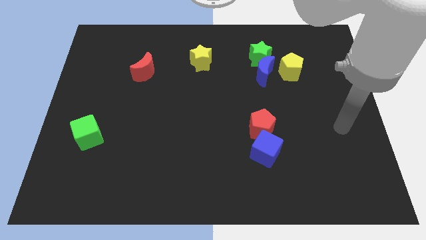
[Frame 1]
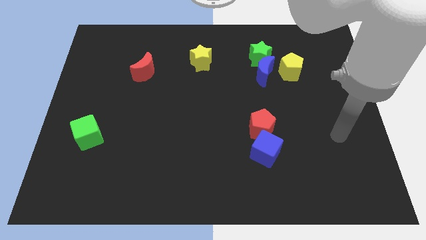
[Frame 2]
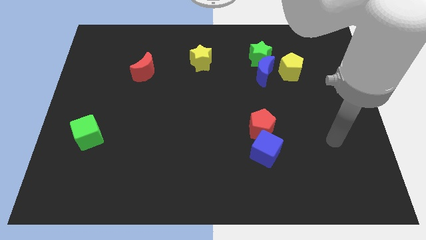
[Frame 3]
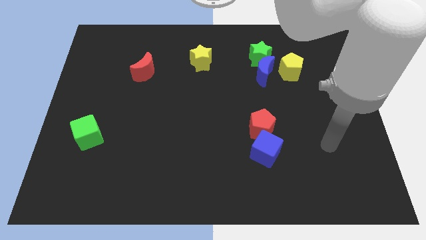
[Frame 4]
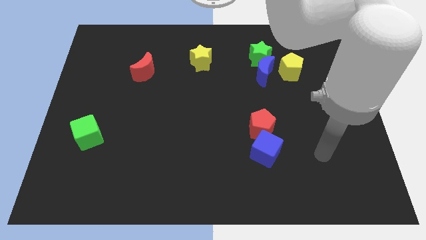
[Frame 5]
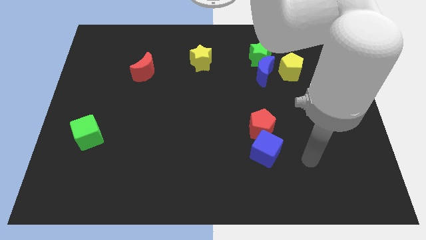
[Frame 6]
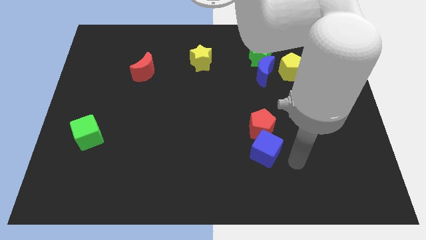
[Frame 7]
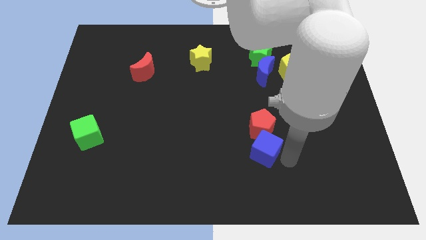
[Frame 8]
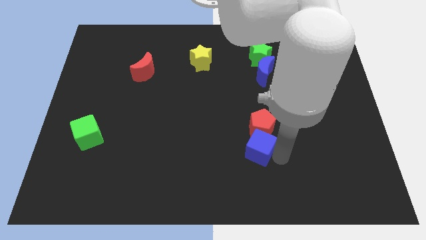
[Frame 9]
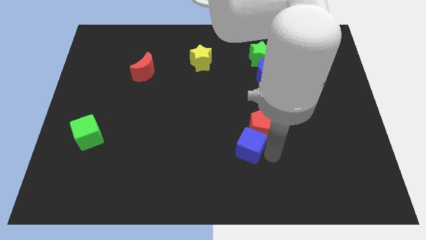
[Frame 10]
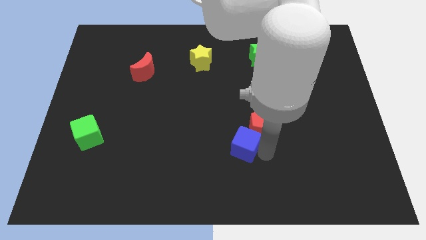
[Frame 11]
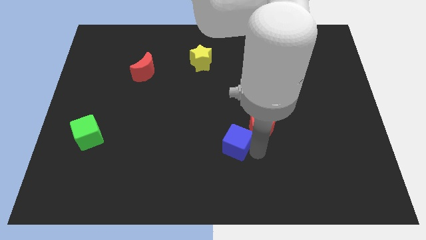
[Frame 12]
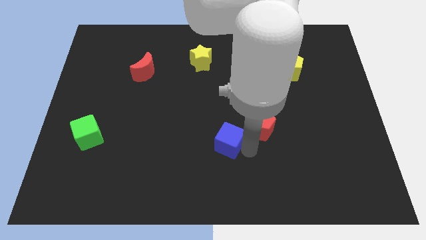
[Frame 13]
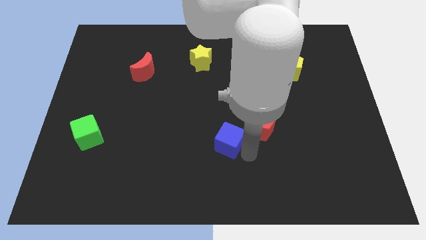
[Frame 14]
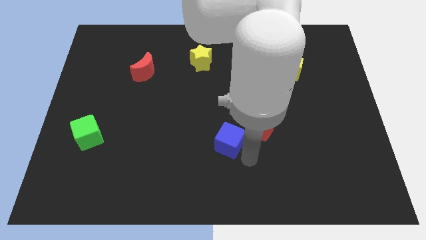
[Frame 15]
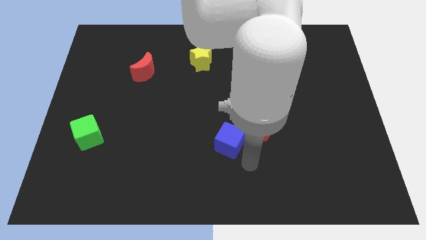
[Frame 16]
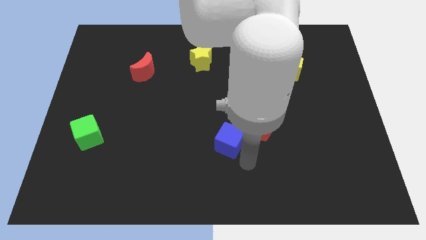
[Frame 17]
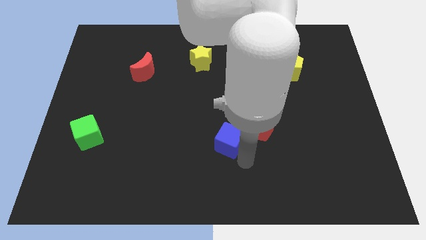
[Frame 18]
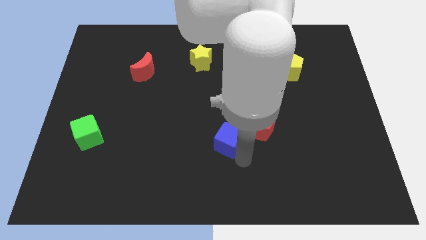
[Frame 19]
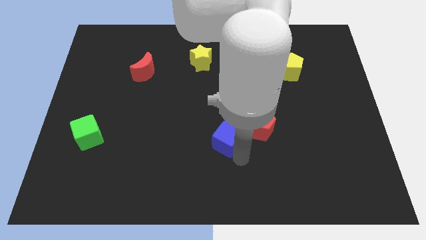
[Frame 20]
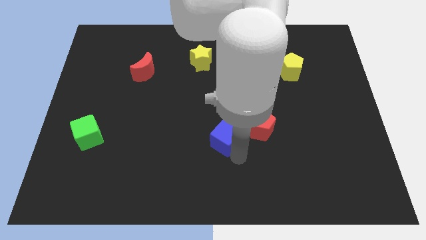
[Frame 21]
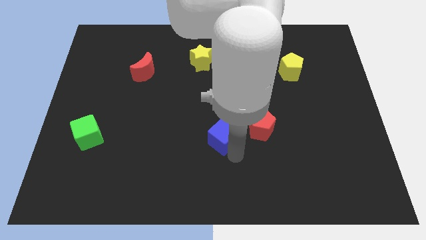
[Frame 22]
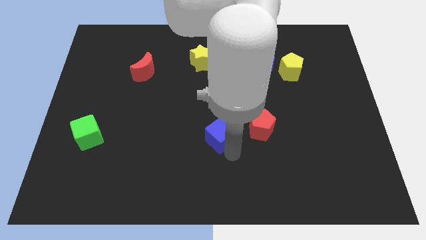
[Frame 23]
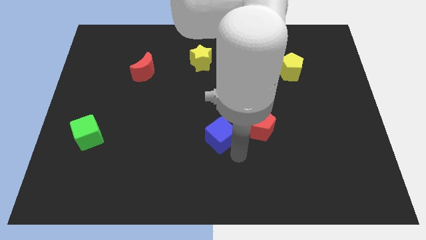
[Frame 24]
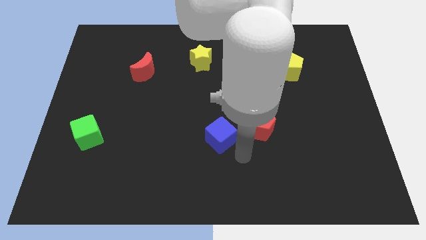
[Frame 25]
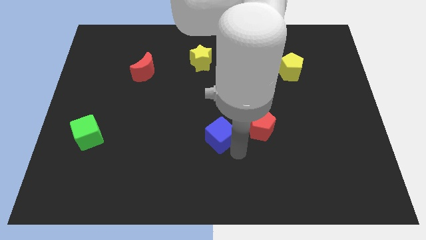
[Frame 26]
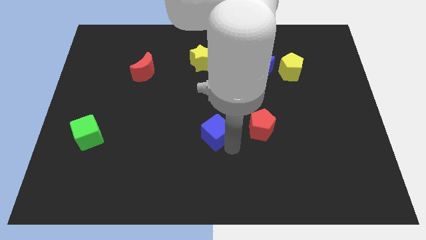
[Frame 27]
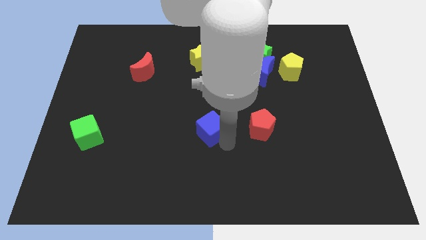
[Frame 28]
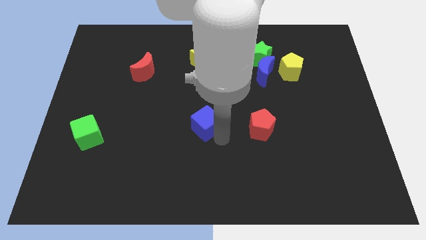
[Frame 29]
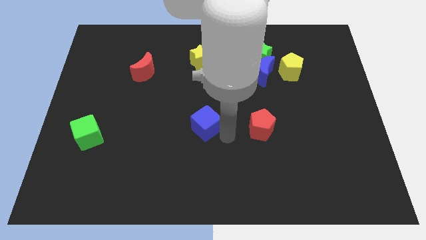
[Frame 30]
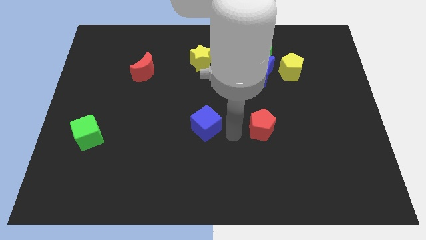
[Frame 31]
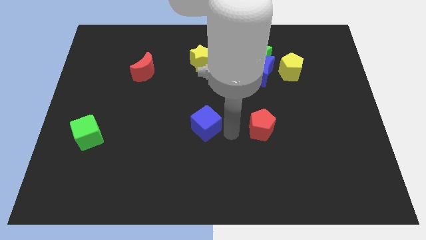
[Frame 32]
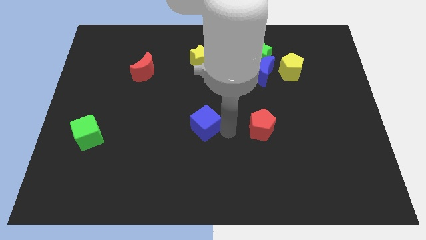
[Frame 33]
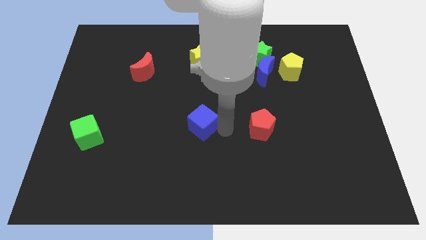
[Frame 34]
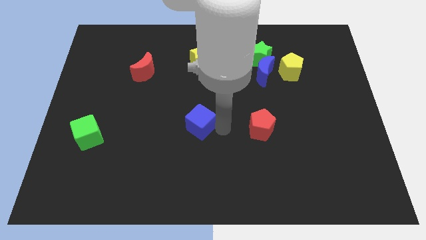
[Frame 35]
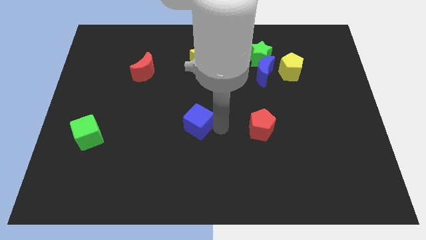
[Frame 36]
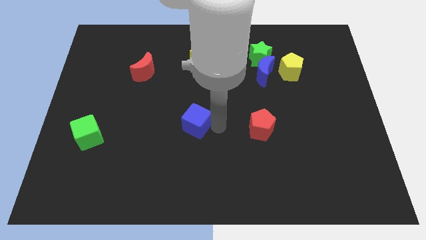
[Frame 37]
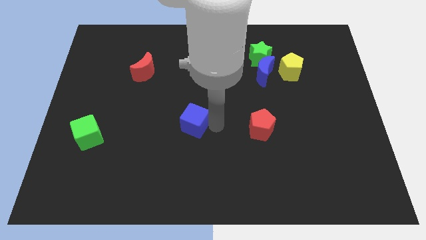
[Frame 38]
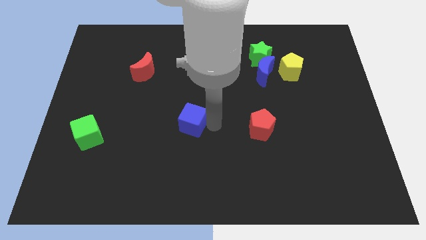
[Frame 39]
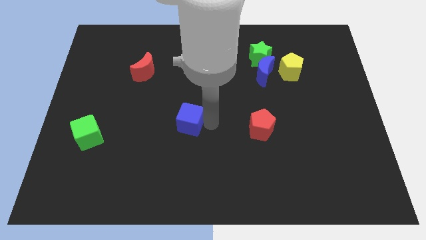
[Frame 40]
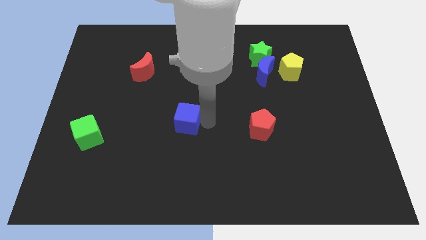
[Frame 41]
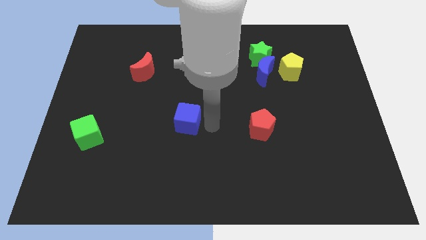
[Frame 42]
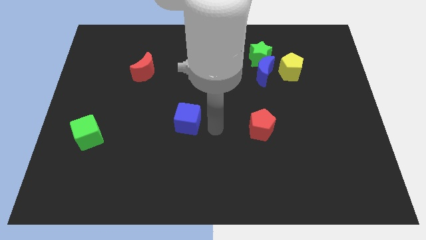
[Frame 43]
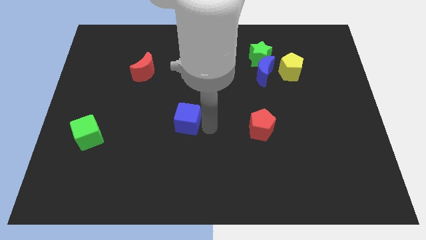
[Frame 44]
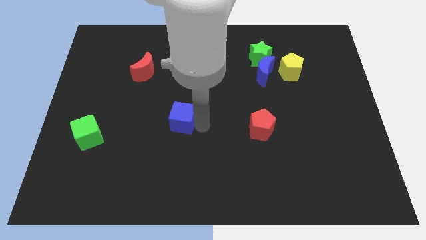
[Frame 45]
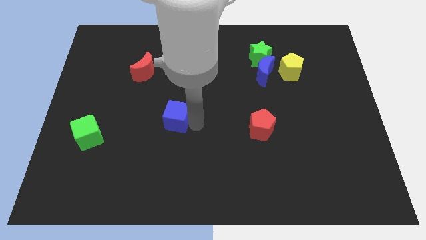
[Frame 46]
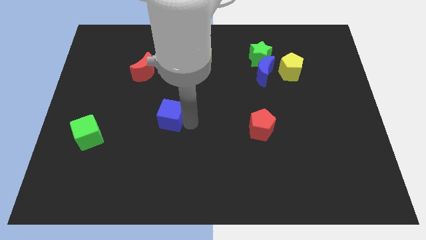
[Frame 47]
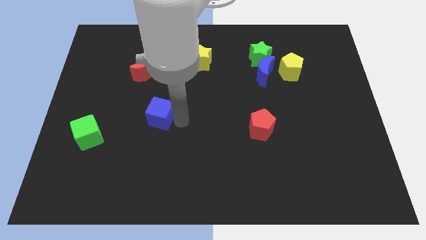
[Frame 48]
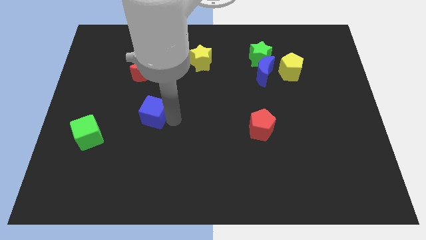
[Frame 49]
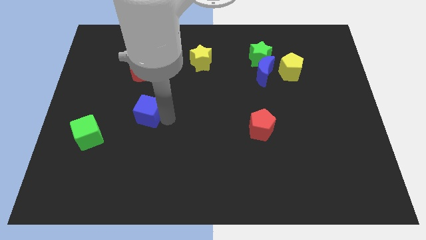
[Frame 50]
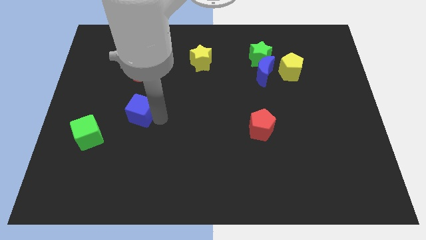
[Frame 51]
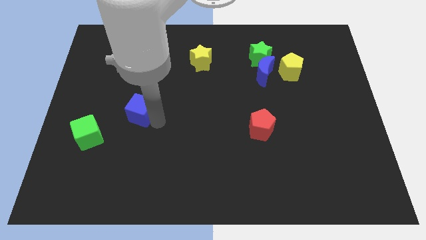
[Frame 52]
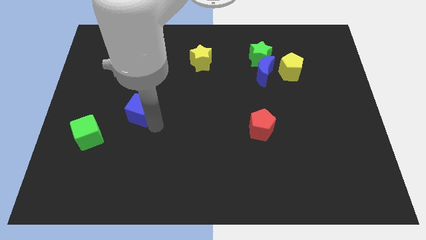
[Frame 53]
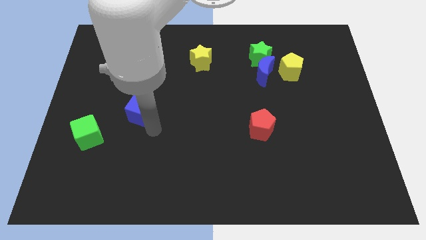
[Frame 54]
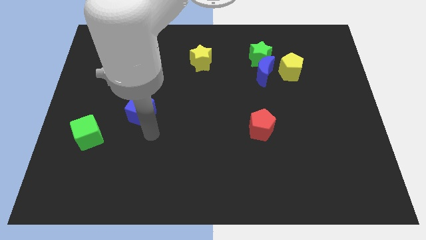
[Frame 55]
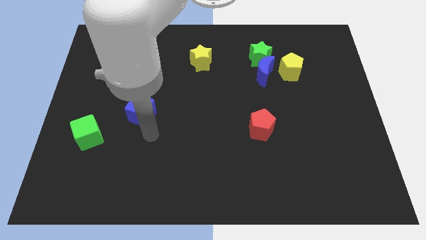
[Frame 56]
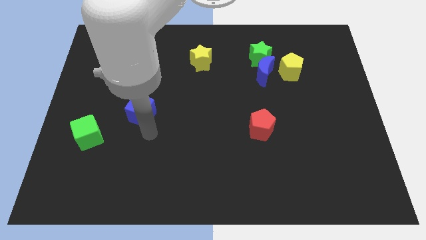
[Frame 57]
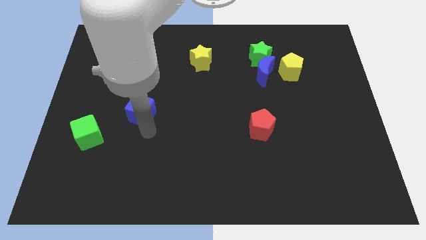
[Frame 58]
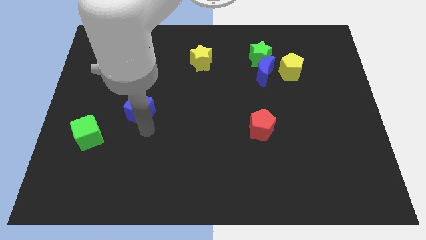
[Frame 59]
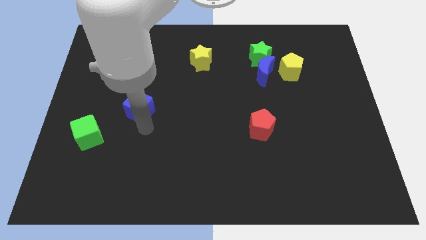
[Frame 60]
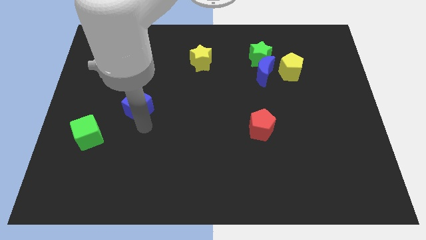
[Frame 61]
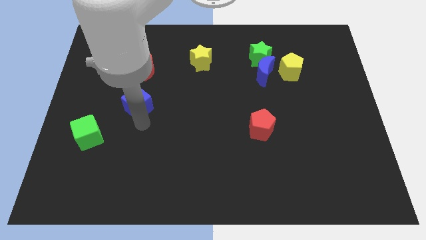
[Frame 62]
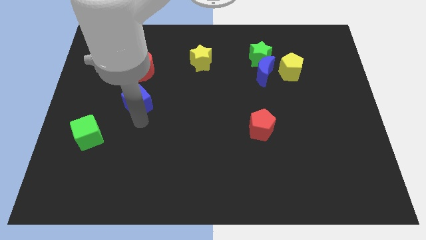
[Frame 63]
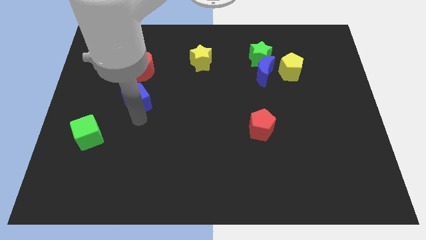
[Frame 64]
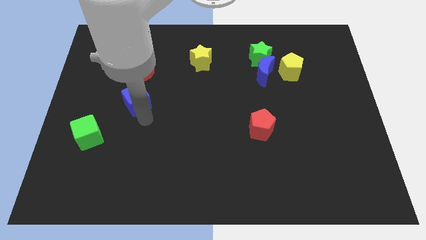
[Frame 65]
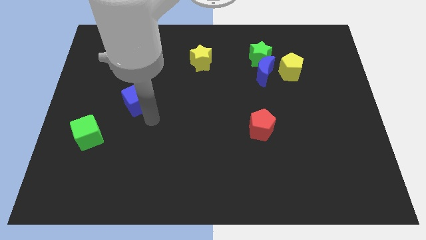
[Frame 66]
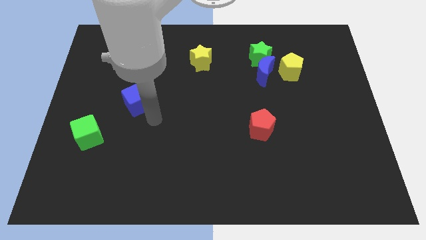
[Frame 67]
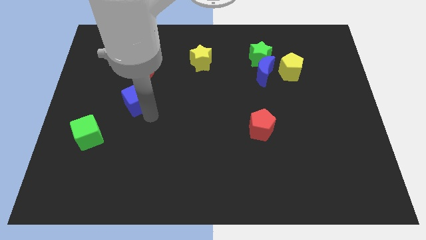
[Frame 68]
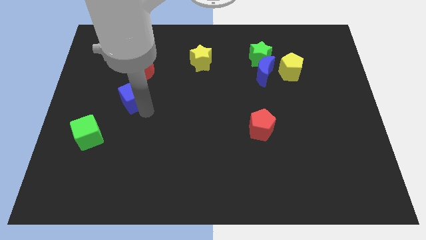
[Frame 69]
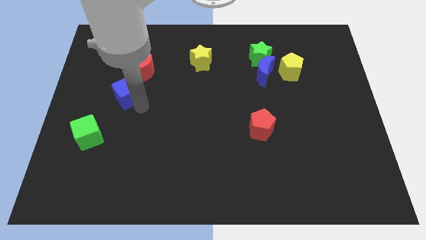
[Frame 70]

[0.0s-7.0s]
move the blue cube to the bottom left side of the red moon
